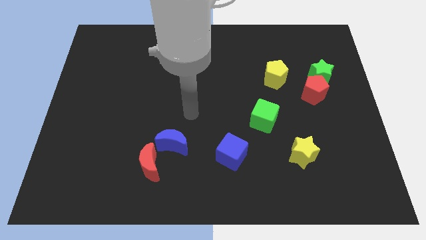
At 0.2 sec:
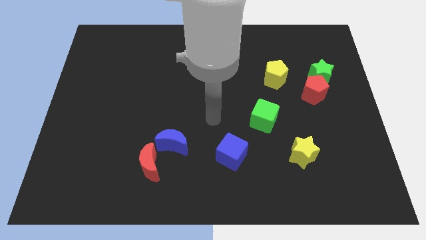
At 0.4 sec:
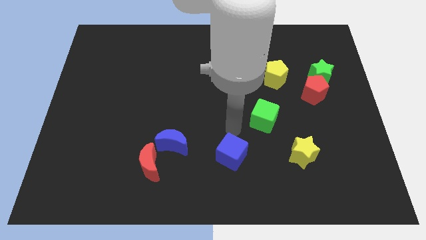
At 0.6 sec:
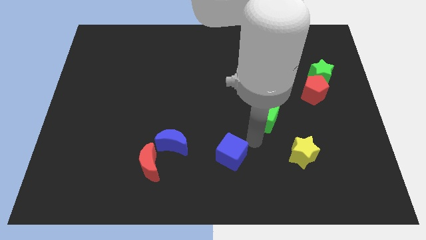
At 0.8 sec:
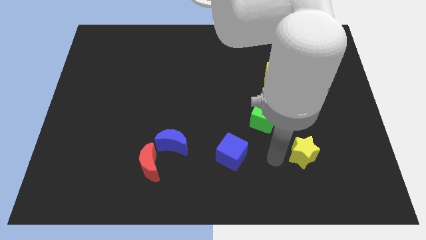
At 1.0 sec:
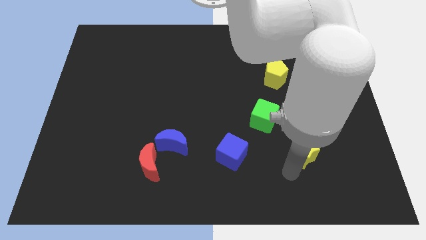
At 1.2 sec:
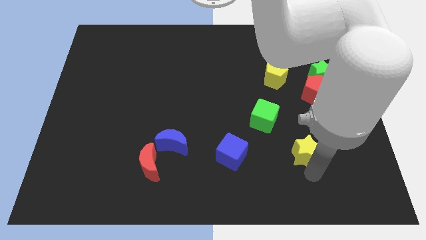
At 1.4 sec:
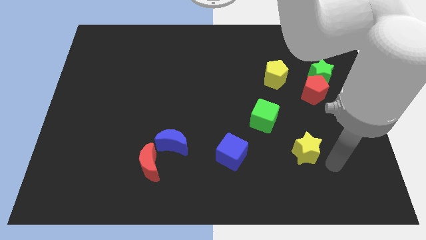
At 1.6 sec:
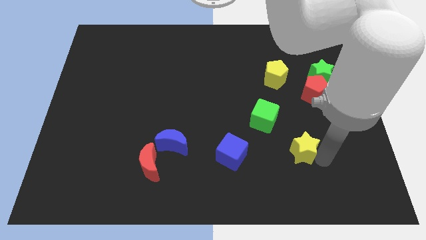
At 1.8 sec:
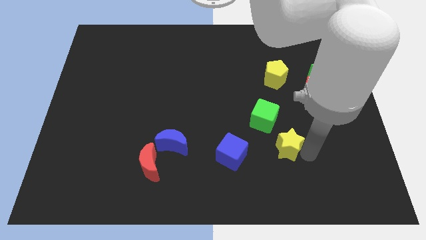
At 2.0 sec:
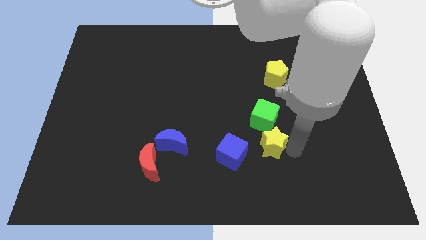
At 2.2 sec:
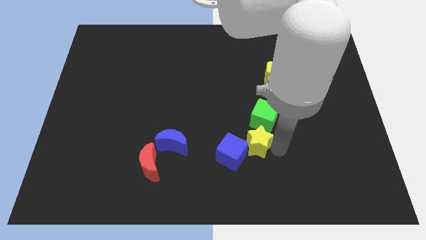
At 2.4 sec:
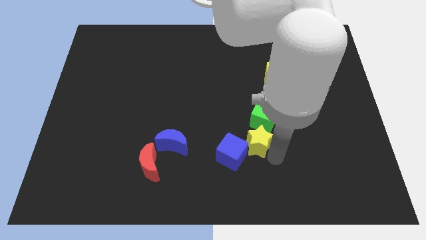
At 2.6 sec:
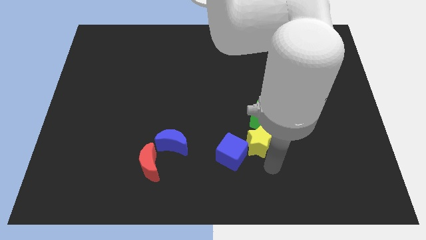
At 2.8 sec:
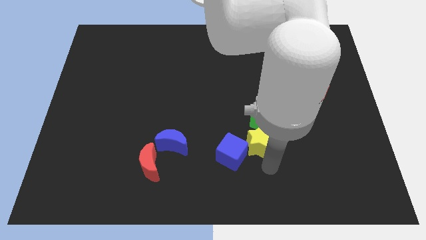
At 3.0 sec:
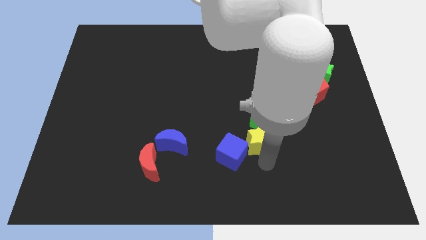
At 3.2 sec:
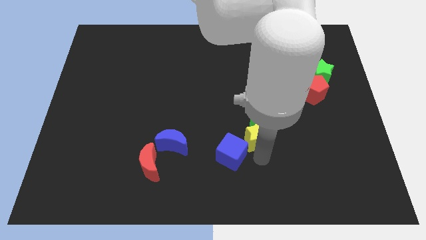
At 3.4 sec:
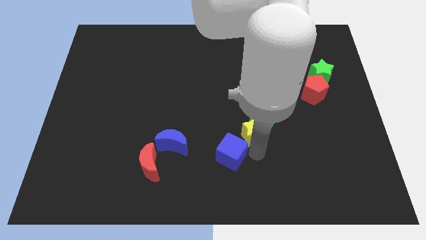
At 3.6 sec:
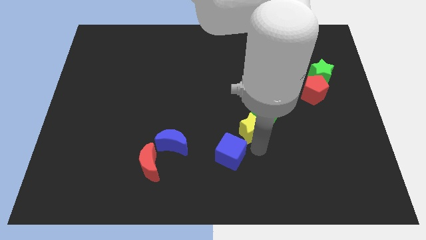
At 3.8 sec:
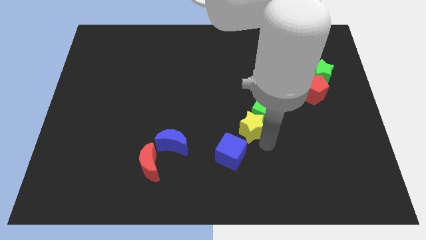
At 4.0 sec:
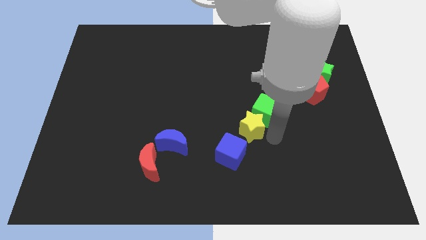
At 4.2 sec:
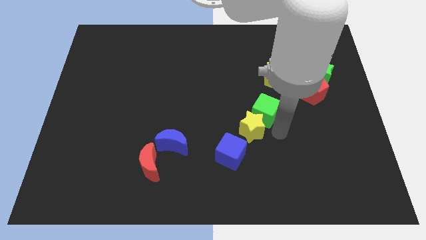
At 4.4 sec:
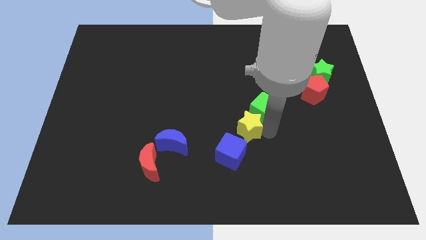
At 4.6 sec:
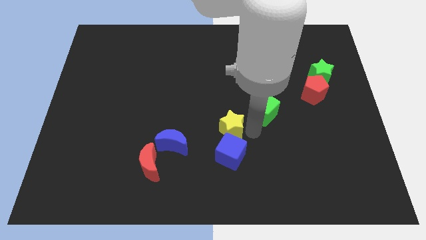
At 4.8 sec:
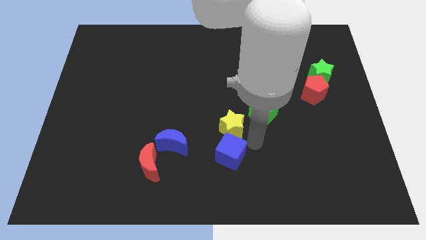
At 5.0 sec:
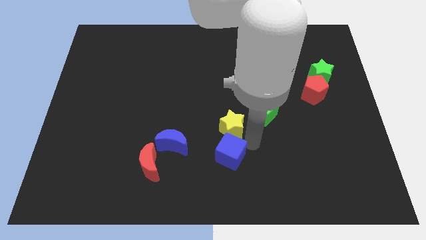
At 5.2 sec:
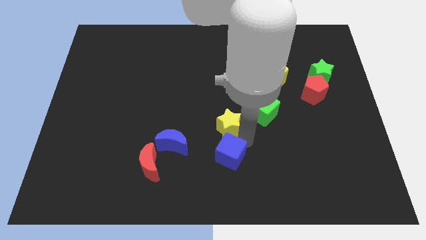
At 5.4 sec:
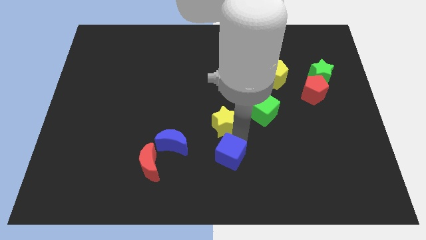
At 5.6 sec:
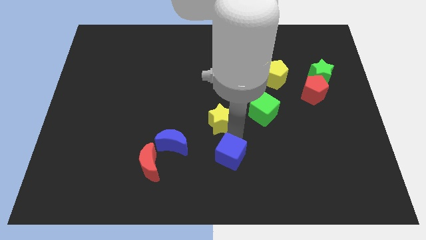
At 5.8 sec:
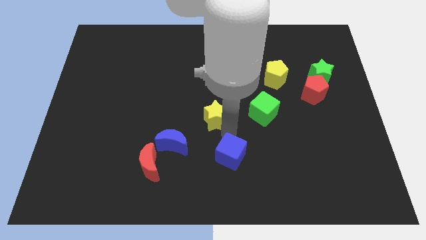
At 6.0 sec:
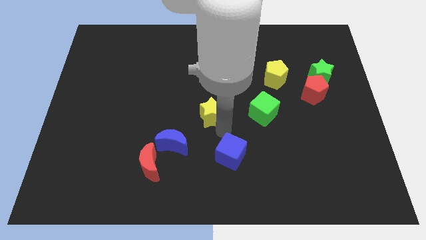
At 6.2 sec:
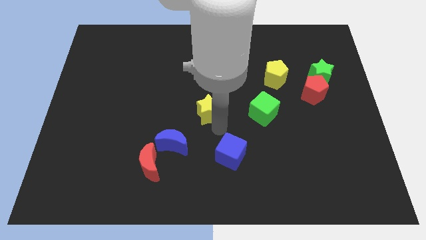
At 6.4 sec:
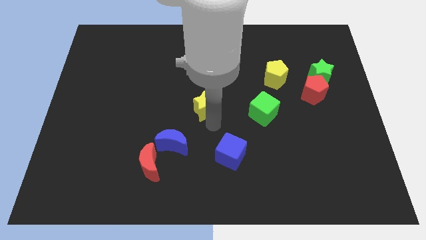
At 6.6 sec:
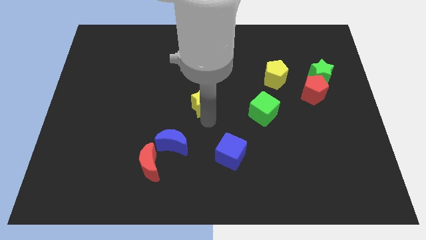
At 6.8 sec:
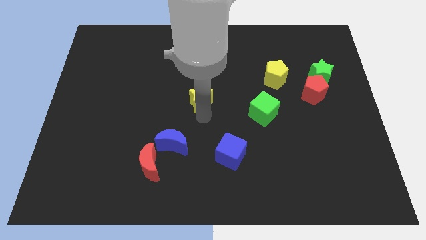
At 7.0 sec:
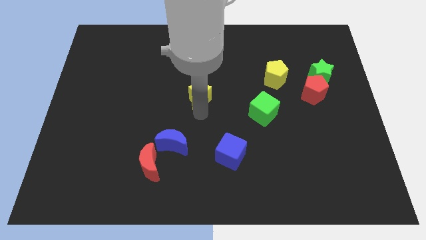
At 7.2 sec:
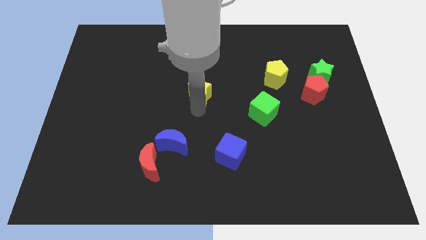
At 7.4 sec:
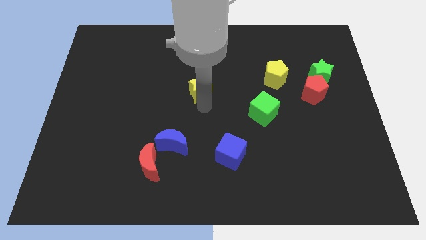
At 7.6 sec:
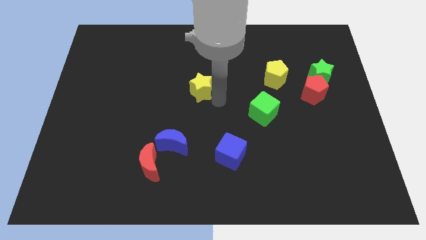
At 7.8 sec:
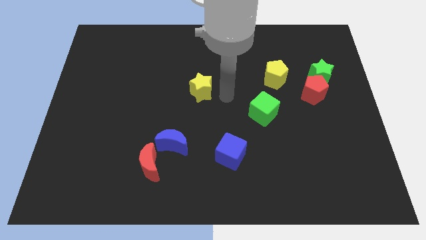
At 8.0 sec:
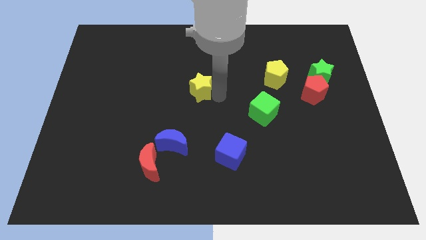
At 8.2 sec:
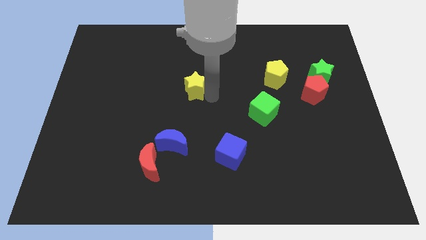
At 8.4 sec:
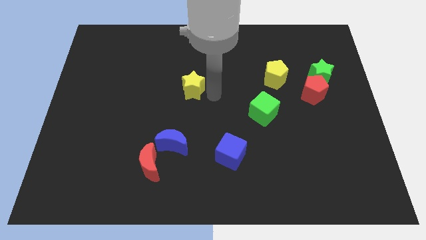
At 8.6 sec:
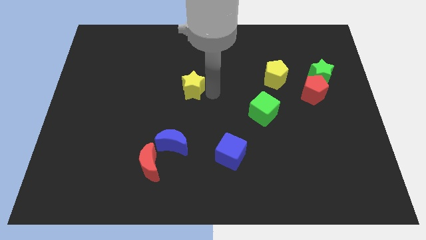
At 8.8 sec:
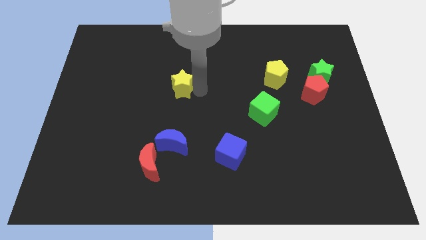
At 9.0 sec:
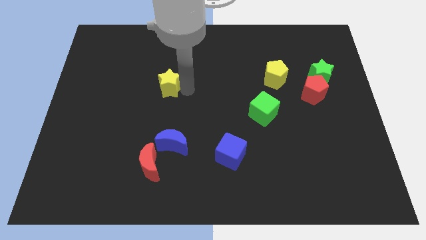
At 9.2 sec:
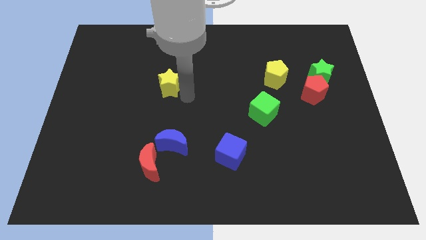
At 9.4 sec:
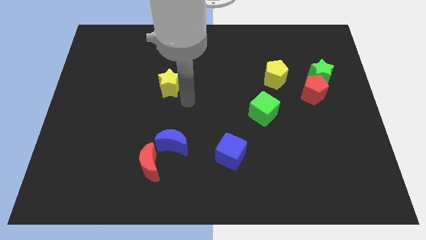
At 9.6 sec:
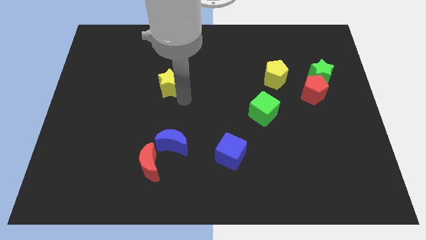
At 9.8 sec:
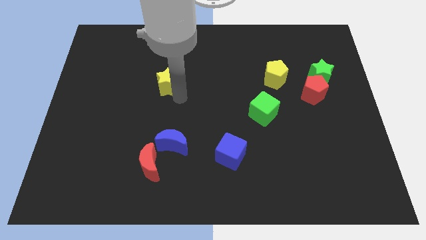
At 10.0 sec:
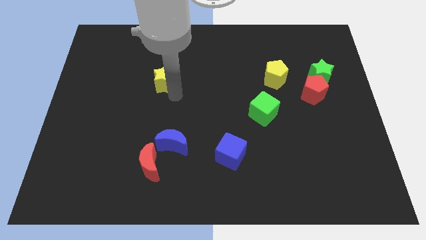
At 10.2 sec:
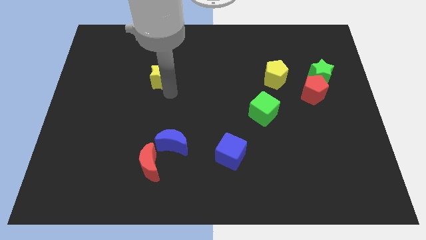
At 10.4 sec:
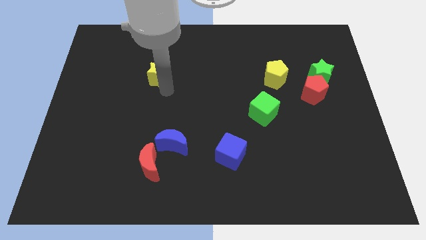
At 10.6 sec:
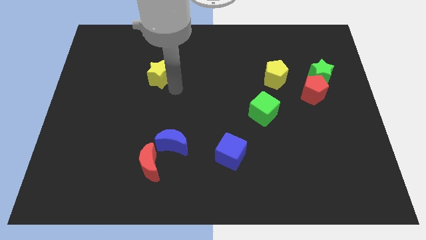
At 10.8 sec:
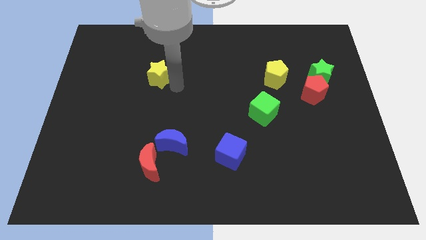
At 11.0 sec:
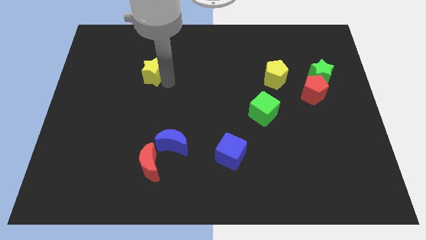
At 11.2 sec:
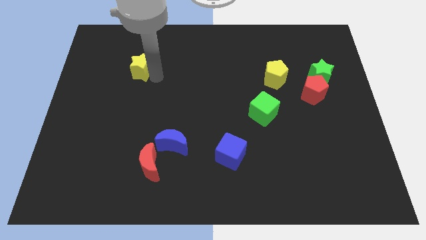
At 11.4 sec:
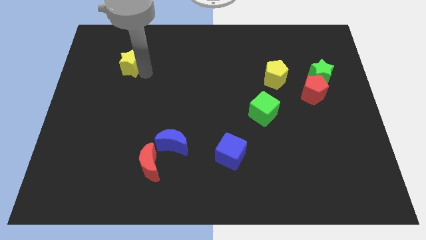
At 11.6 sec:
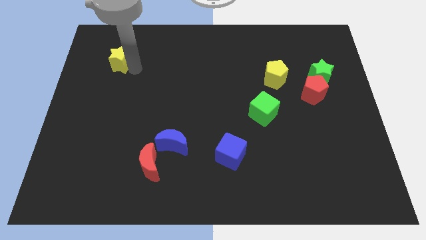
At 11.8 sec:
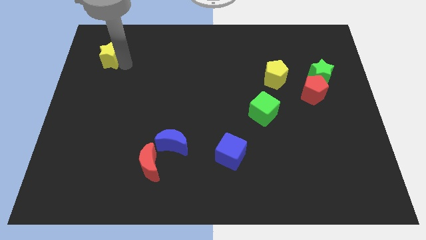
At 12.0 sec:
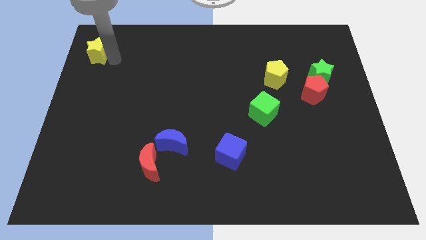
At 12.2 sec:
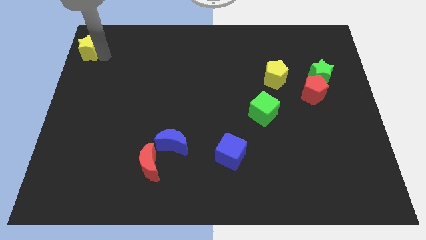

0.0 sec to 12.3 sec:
move the yellow star to the upper left corner

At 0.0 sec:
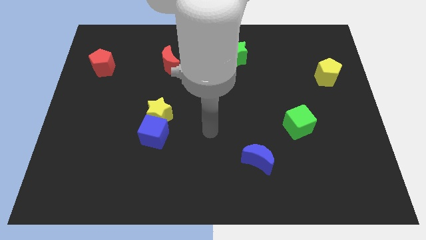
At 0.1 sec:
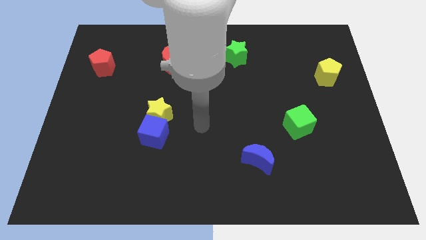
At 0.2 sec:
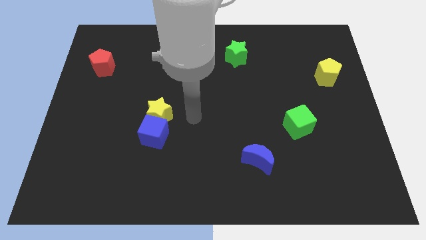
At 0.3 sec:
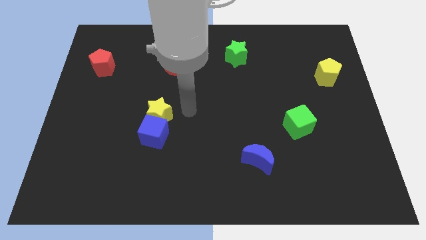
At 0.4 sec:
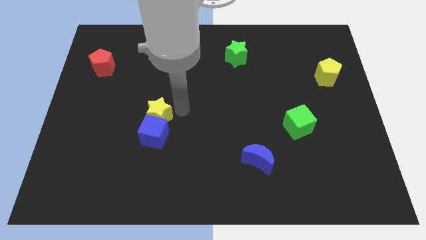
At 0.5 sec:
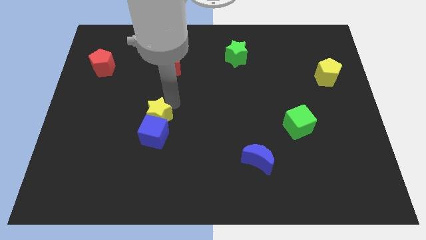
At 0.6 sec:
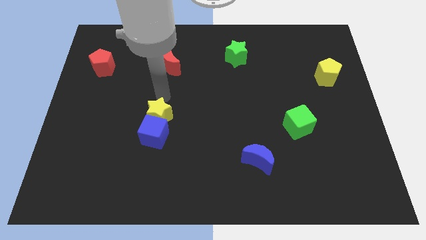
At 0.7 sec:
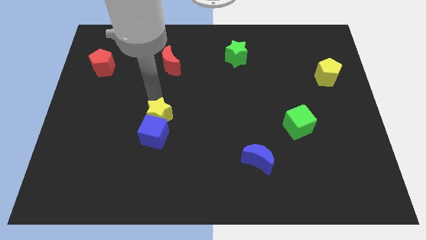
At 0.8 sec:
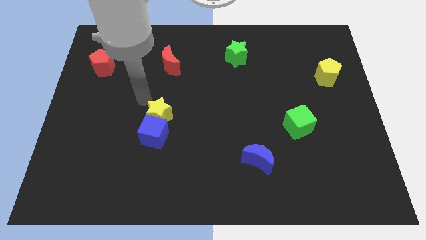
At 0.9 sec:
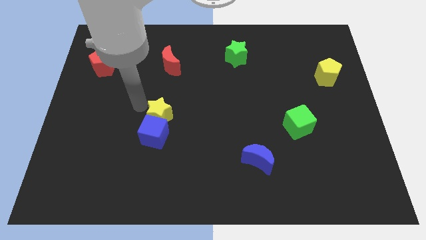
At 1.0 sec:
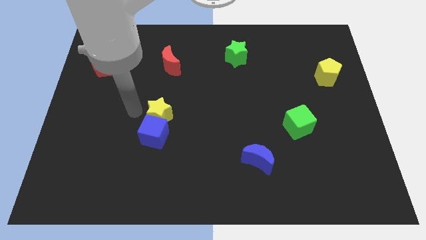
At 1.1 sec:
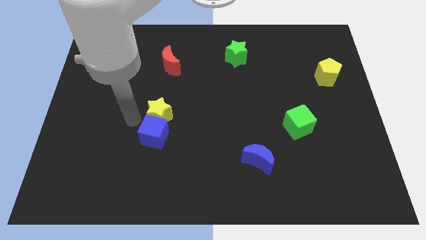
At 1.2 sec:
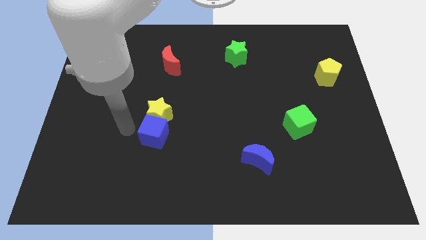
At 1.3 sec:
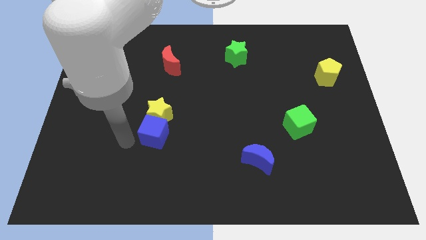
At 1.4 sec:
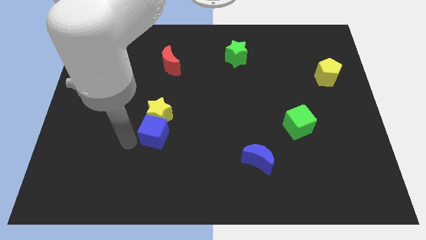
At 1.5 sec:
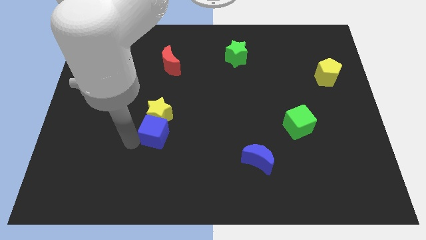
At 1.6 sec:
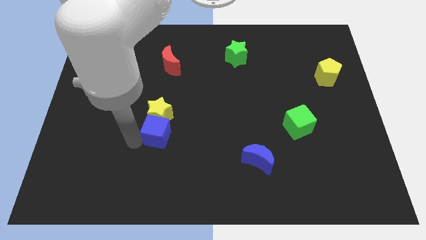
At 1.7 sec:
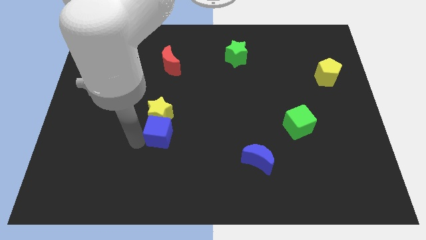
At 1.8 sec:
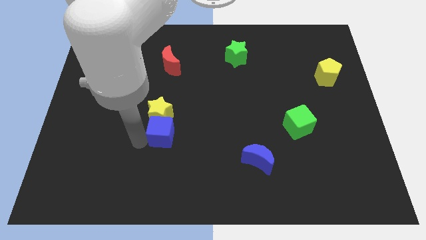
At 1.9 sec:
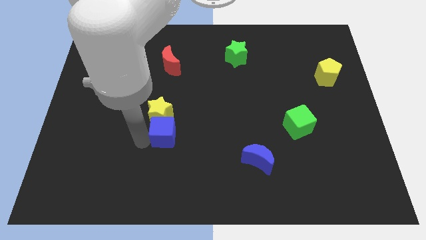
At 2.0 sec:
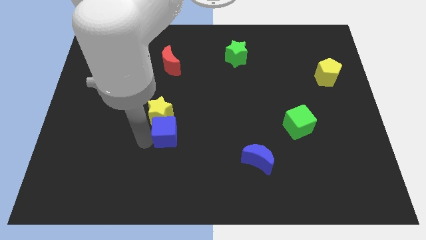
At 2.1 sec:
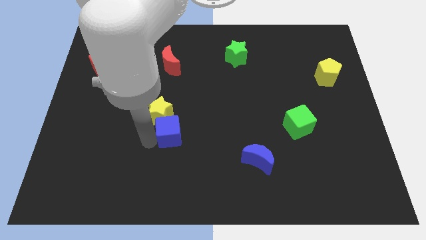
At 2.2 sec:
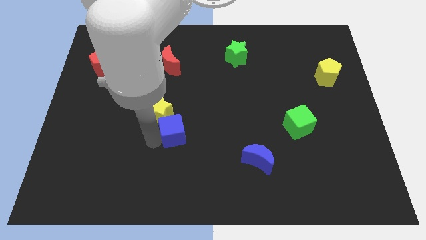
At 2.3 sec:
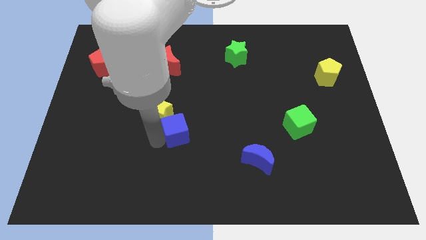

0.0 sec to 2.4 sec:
push the blue cube to the middle of the board
